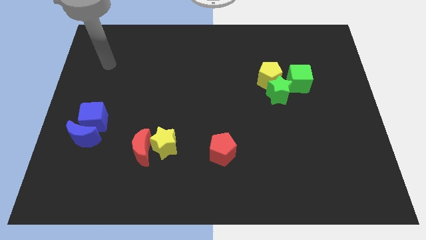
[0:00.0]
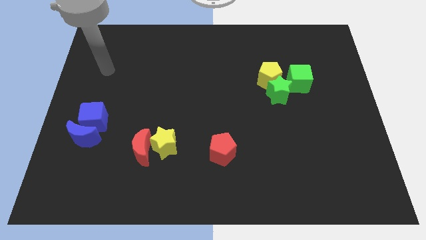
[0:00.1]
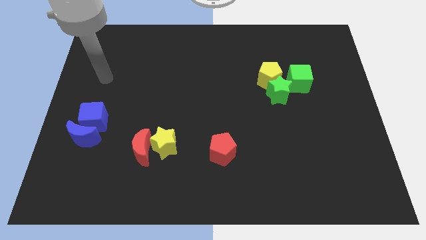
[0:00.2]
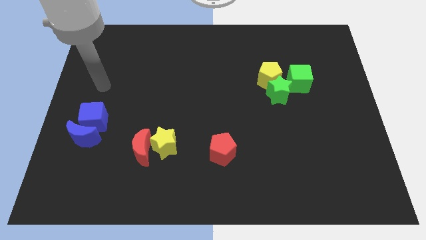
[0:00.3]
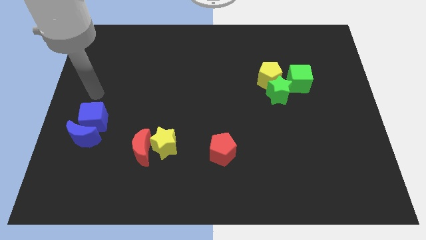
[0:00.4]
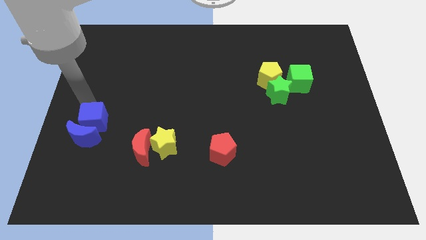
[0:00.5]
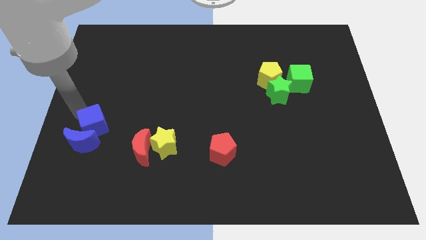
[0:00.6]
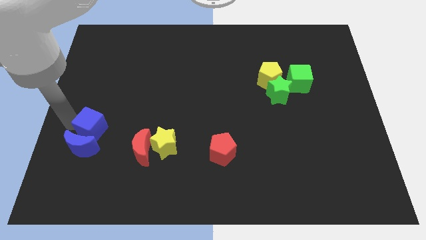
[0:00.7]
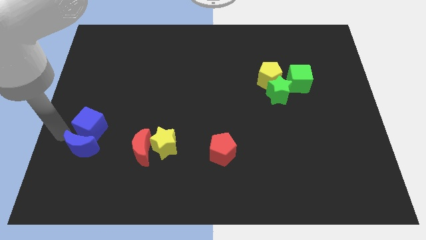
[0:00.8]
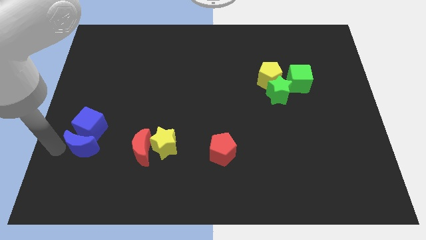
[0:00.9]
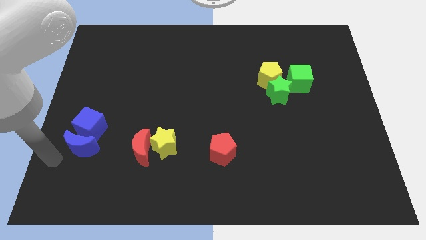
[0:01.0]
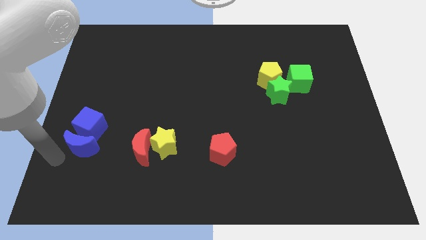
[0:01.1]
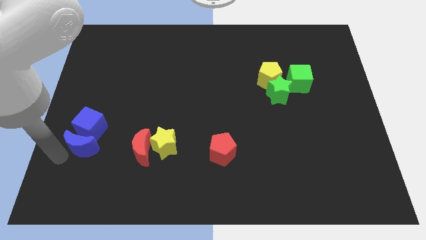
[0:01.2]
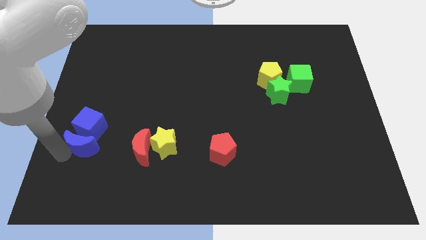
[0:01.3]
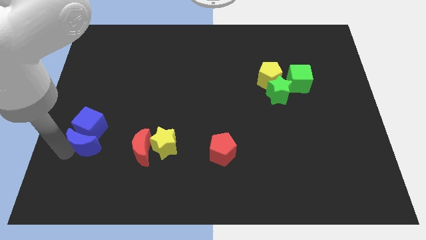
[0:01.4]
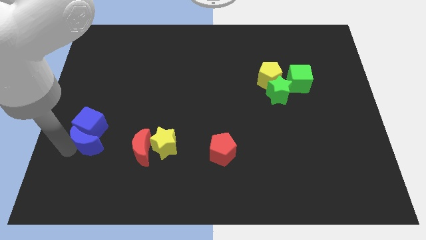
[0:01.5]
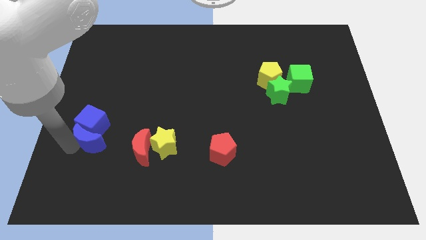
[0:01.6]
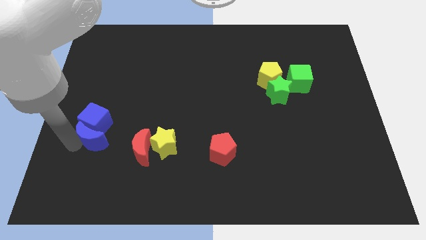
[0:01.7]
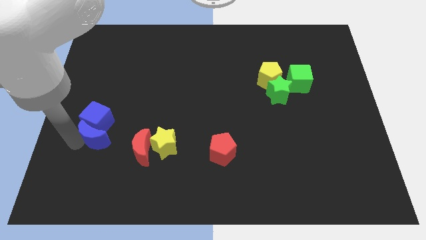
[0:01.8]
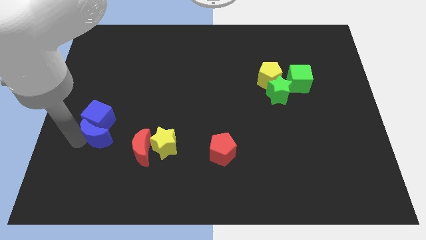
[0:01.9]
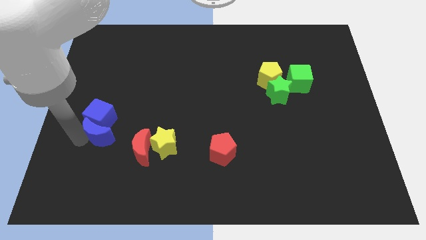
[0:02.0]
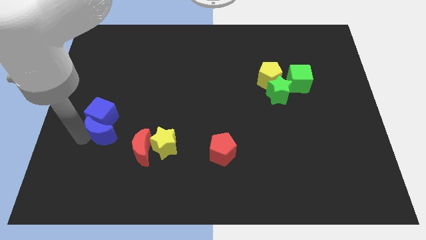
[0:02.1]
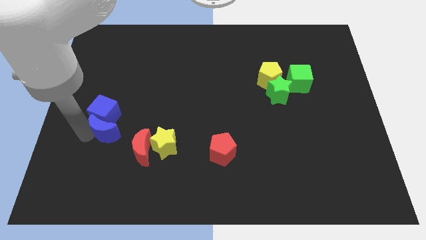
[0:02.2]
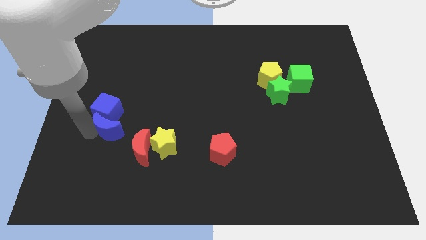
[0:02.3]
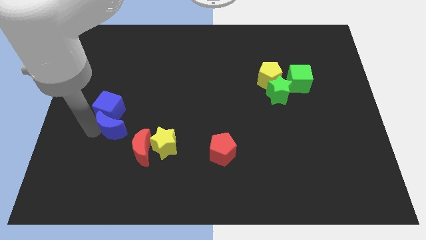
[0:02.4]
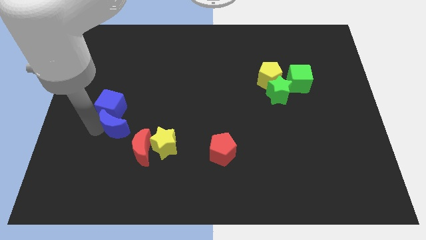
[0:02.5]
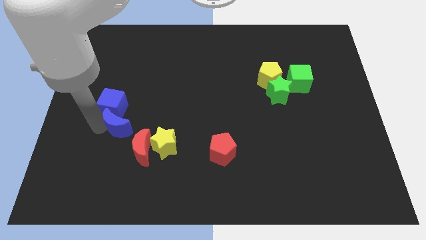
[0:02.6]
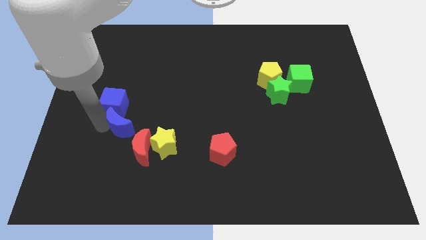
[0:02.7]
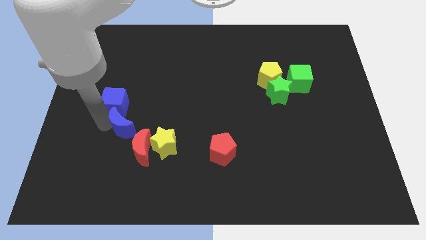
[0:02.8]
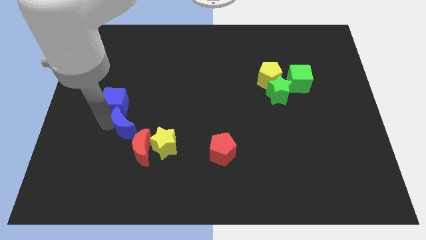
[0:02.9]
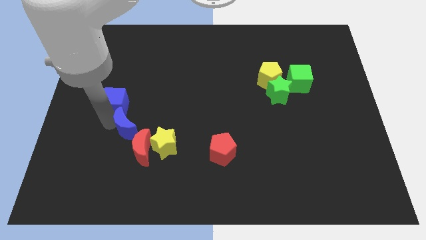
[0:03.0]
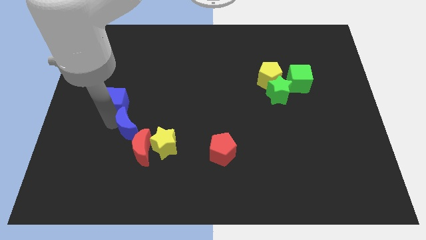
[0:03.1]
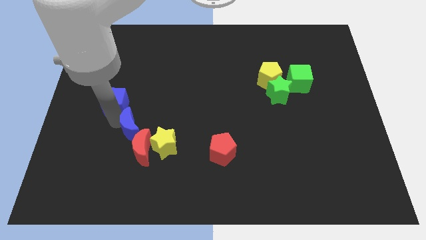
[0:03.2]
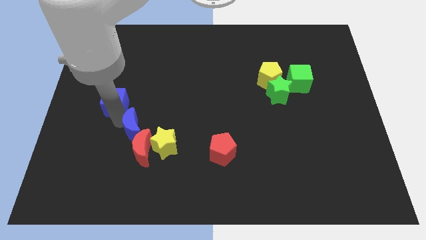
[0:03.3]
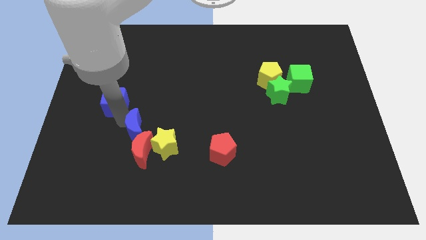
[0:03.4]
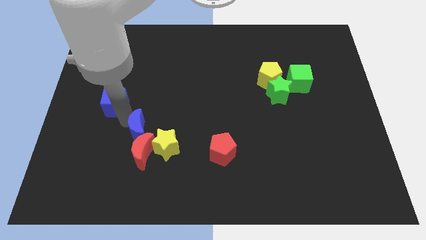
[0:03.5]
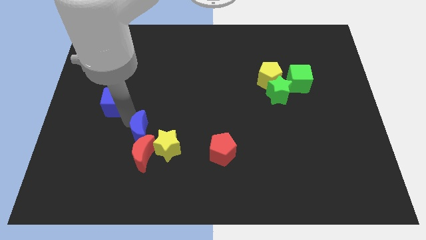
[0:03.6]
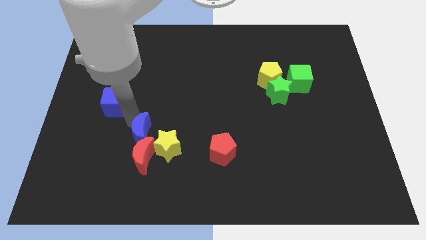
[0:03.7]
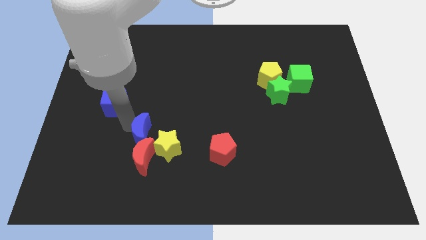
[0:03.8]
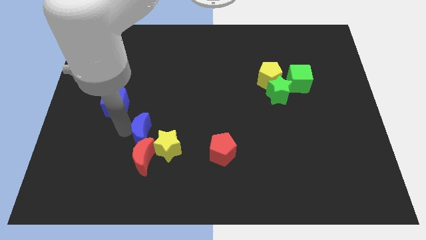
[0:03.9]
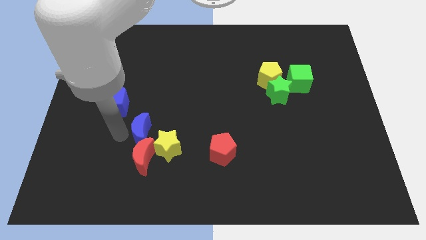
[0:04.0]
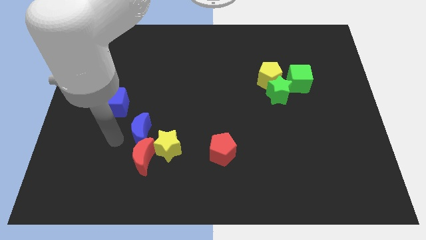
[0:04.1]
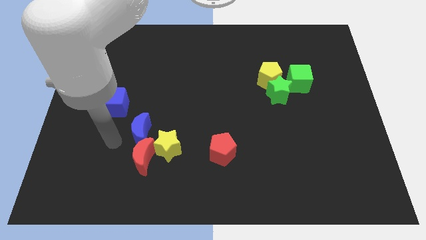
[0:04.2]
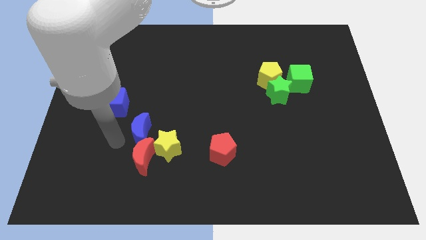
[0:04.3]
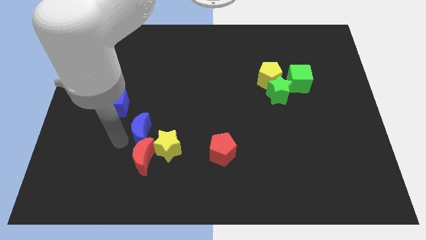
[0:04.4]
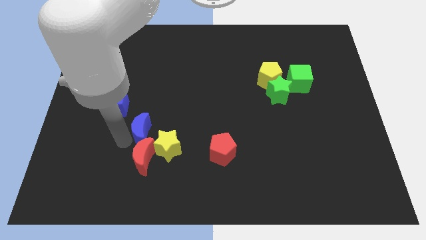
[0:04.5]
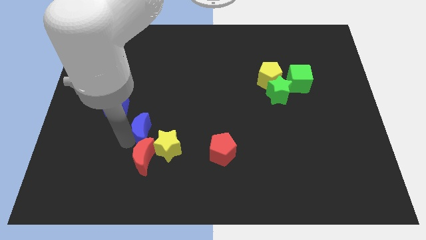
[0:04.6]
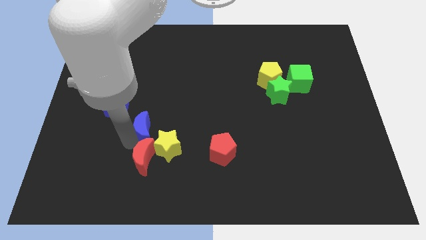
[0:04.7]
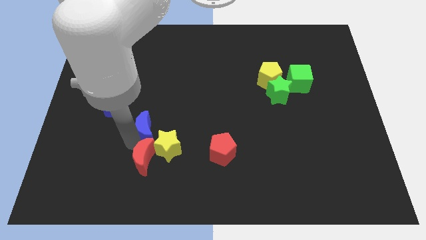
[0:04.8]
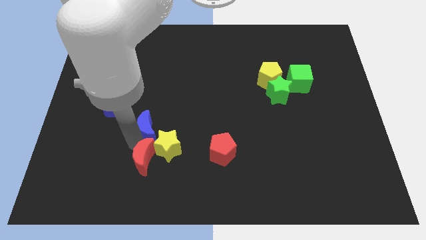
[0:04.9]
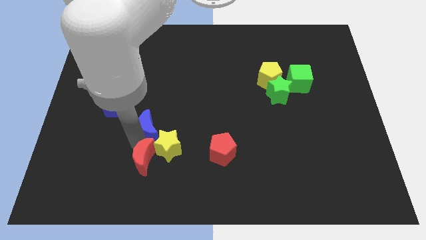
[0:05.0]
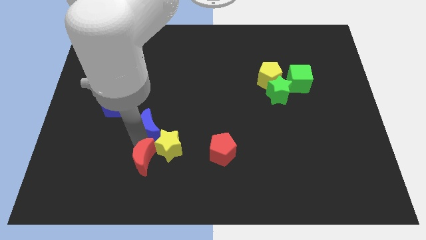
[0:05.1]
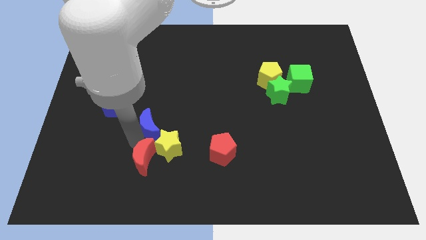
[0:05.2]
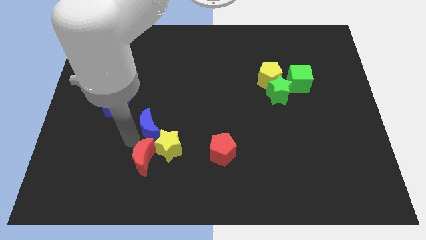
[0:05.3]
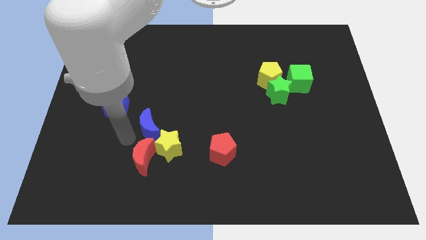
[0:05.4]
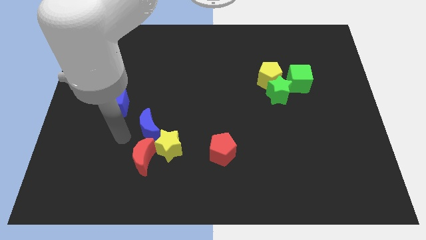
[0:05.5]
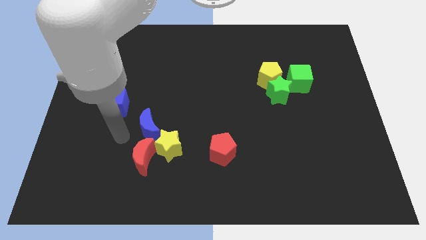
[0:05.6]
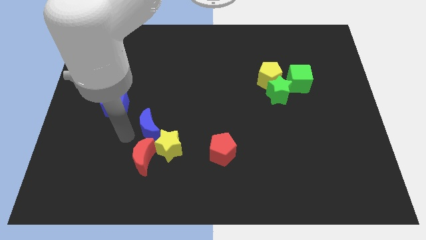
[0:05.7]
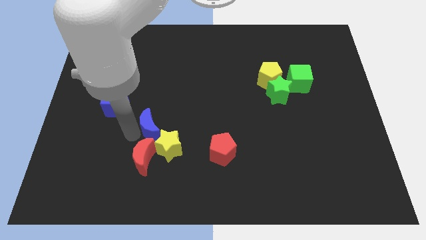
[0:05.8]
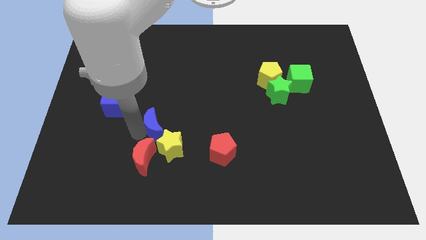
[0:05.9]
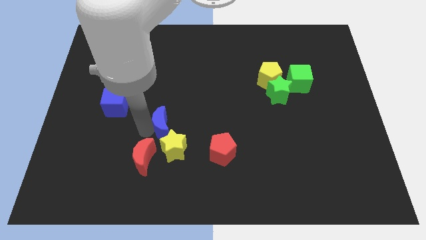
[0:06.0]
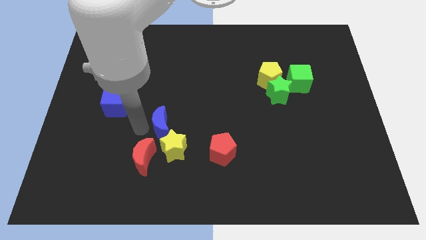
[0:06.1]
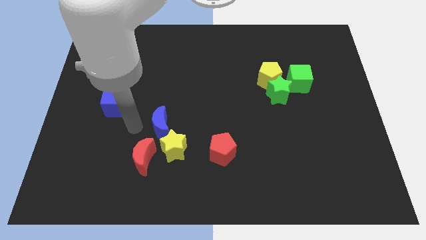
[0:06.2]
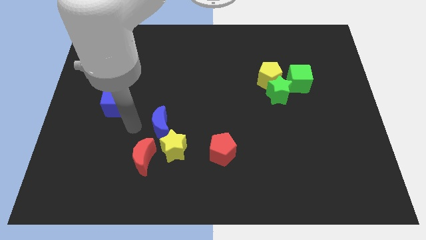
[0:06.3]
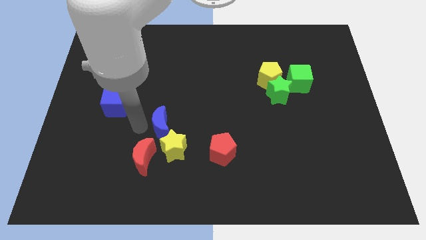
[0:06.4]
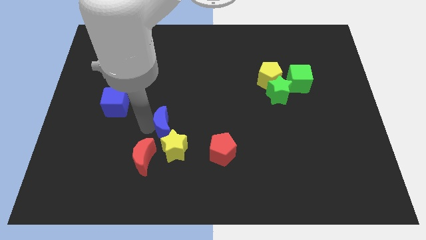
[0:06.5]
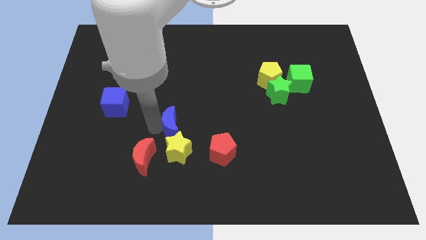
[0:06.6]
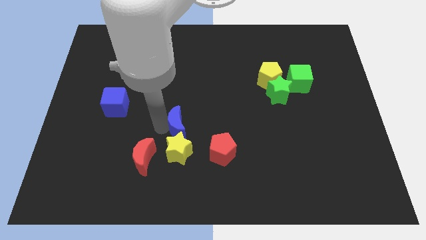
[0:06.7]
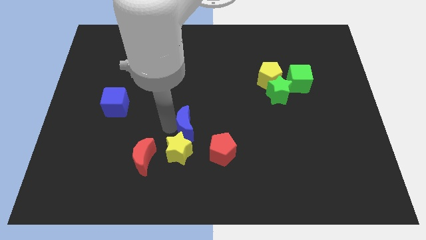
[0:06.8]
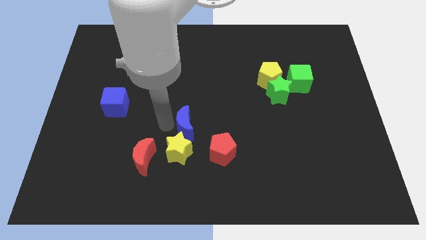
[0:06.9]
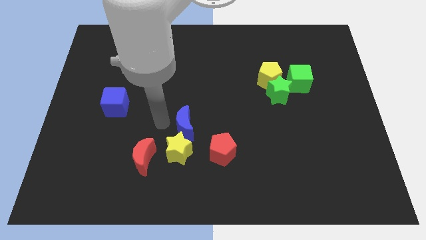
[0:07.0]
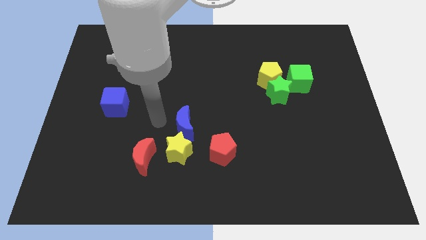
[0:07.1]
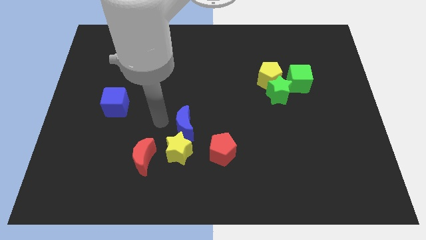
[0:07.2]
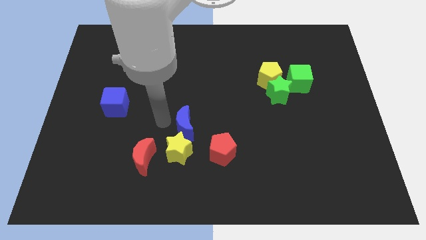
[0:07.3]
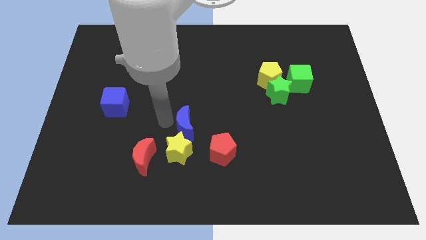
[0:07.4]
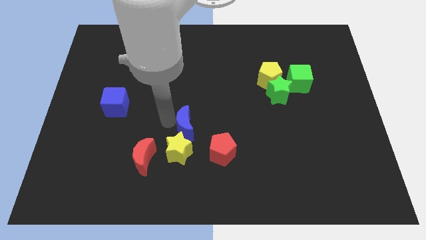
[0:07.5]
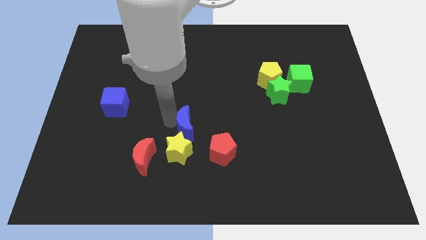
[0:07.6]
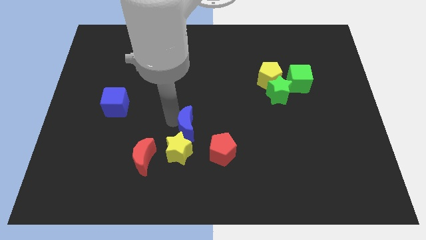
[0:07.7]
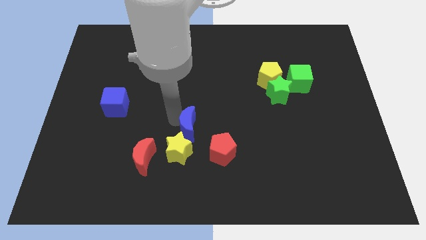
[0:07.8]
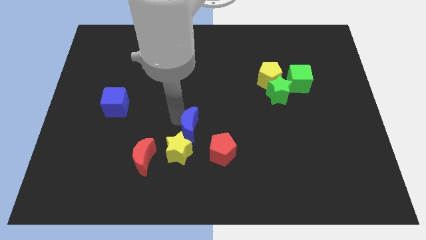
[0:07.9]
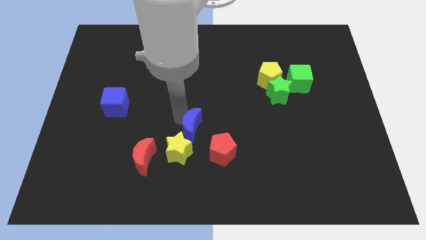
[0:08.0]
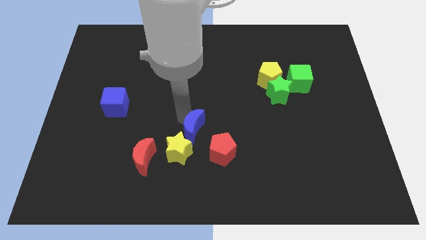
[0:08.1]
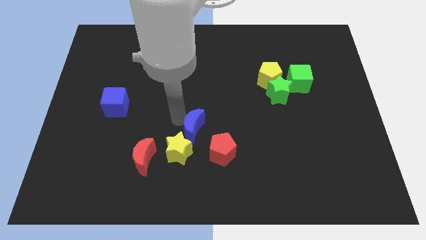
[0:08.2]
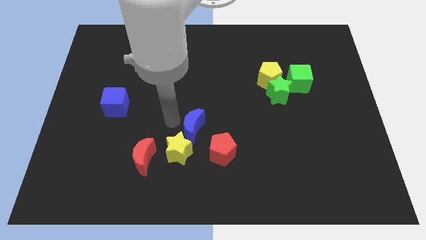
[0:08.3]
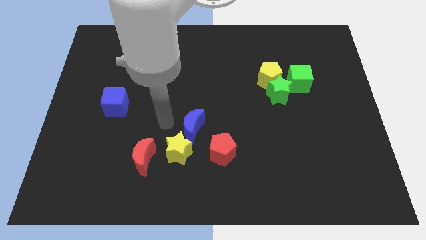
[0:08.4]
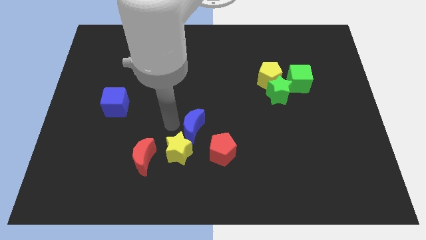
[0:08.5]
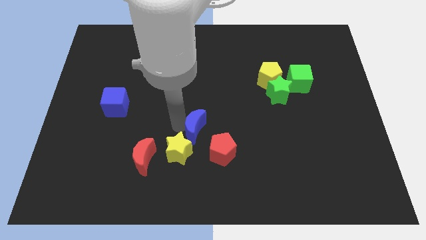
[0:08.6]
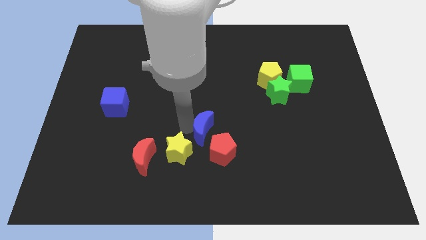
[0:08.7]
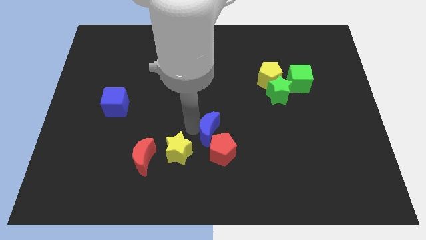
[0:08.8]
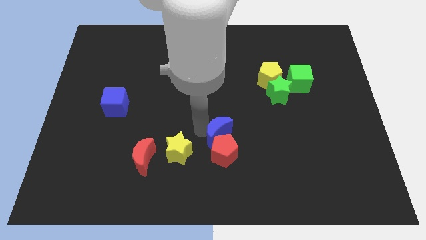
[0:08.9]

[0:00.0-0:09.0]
put the blue moon to the top right side of the red pentagon
